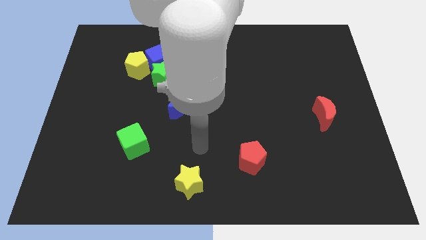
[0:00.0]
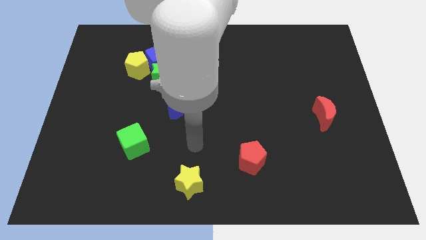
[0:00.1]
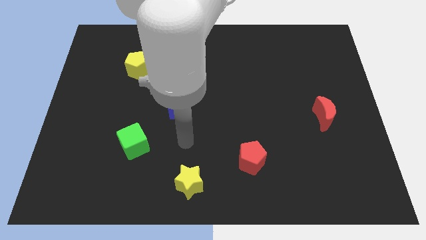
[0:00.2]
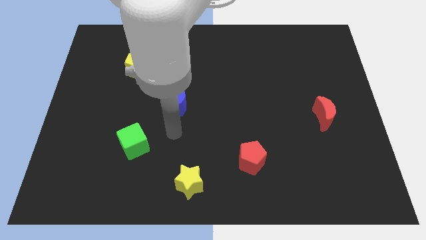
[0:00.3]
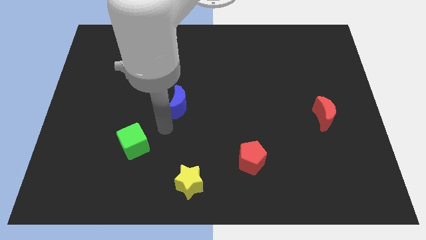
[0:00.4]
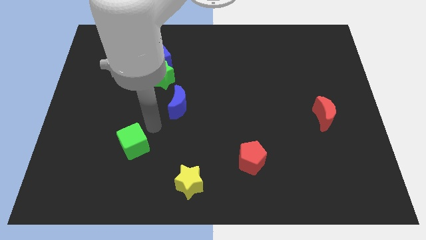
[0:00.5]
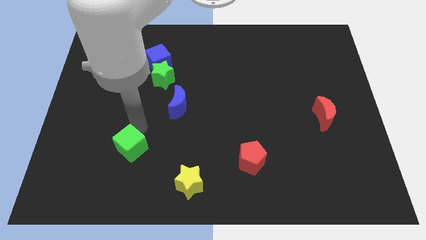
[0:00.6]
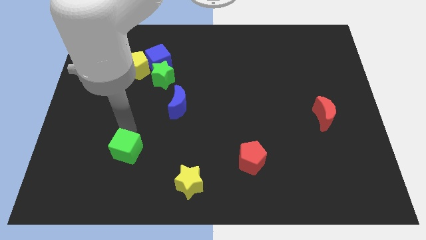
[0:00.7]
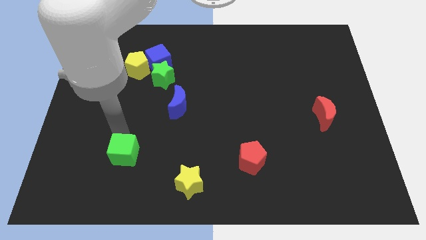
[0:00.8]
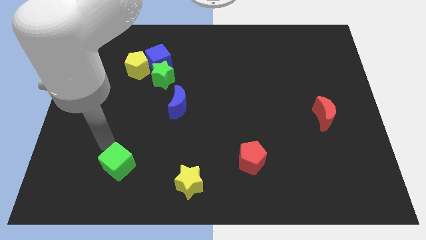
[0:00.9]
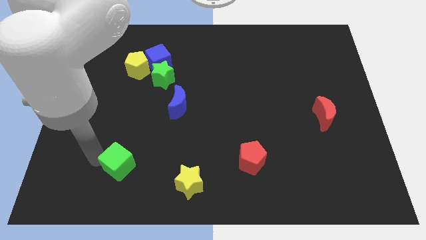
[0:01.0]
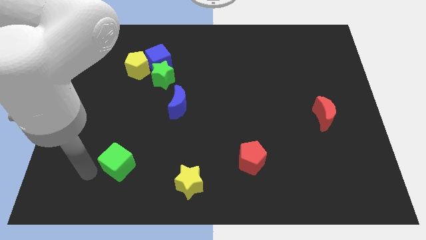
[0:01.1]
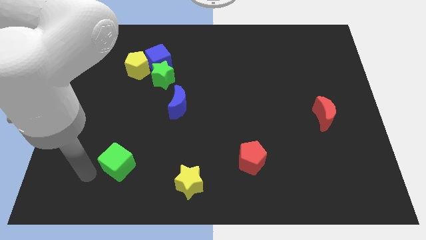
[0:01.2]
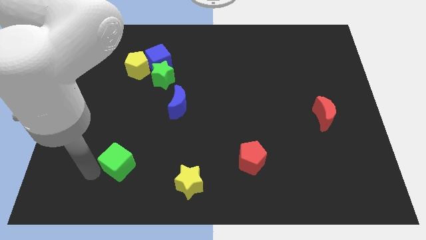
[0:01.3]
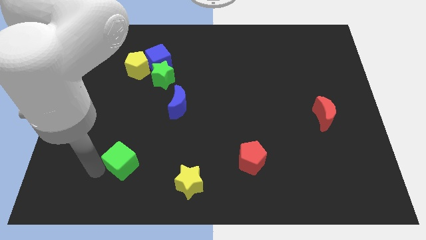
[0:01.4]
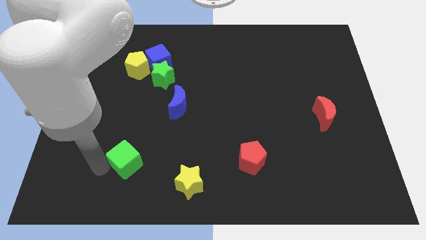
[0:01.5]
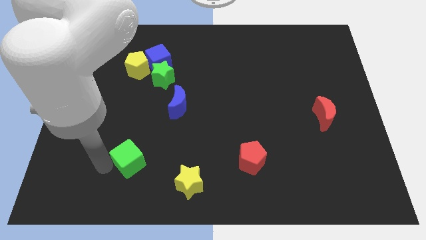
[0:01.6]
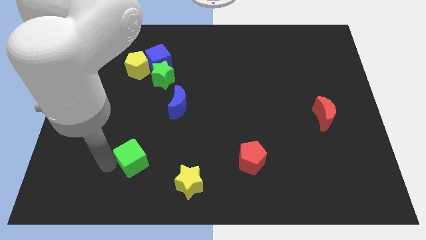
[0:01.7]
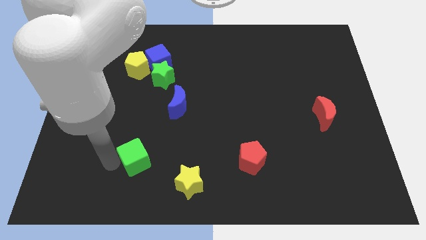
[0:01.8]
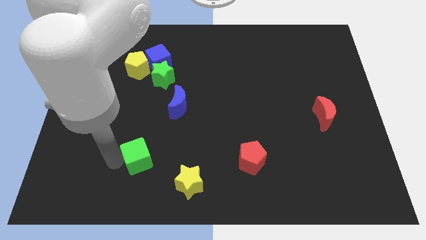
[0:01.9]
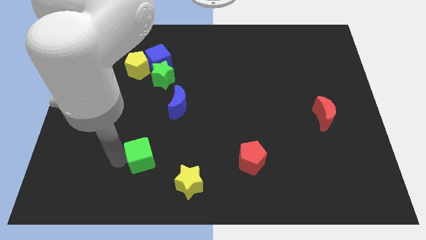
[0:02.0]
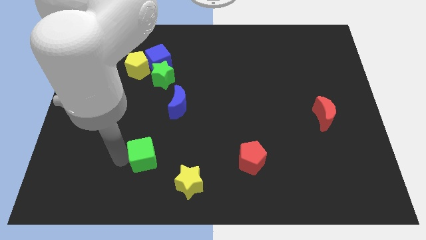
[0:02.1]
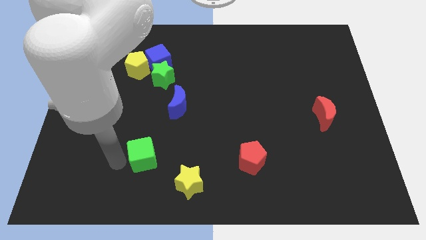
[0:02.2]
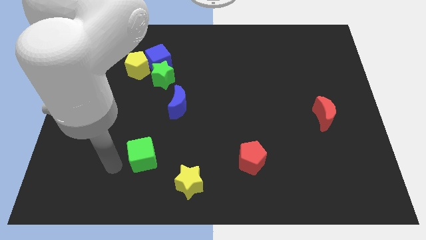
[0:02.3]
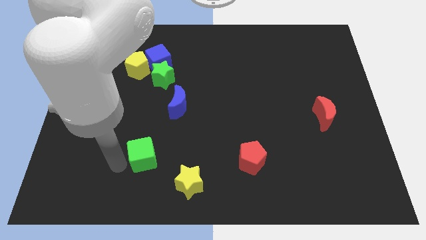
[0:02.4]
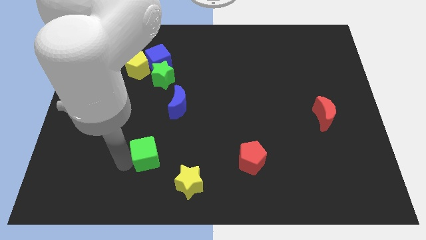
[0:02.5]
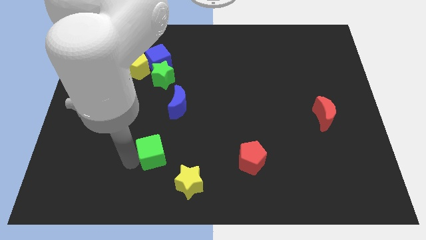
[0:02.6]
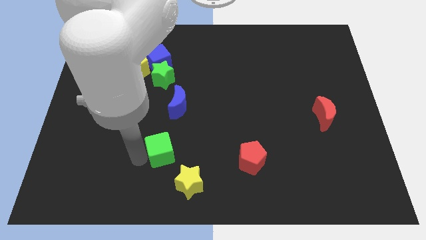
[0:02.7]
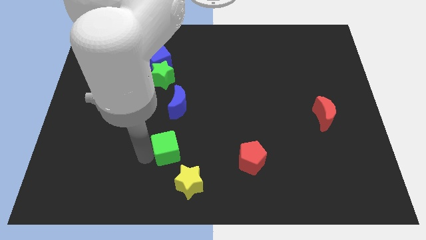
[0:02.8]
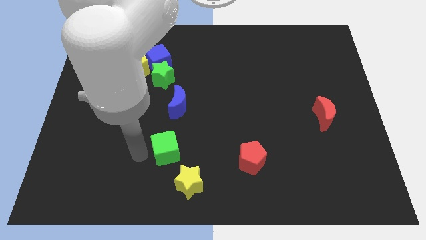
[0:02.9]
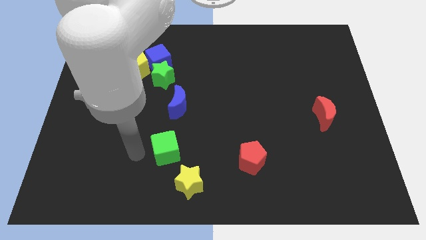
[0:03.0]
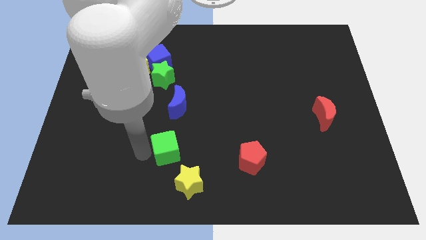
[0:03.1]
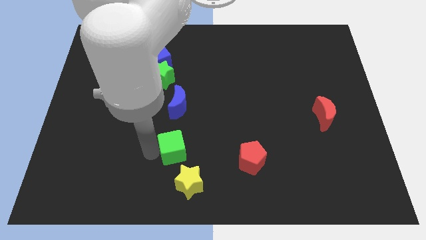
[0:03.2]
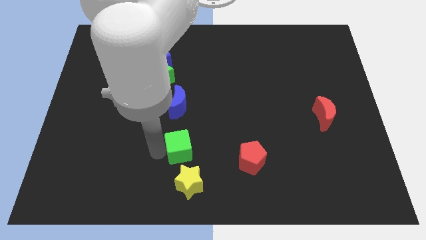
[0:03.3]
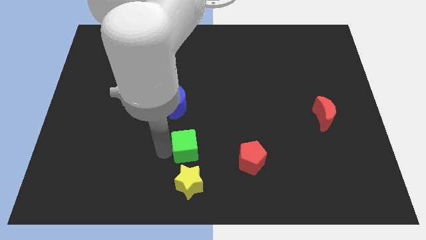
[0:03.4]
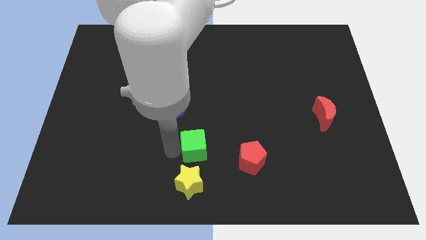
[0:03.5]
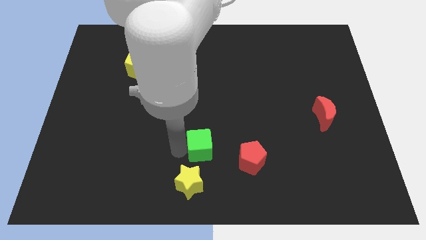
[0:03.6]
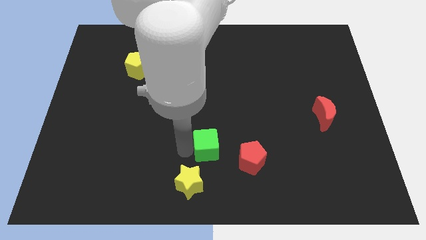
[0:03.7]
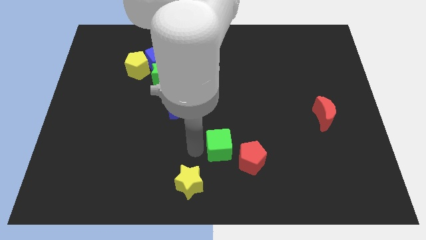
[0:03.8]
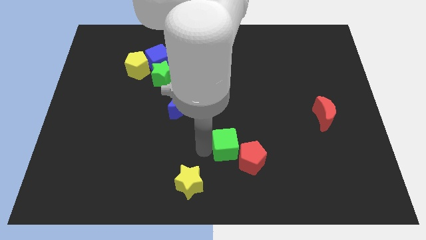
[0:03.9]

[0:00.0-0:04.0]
move the green cube right

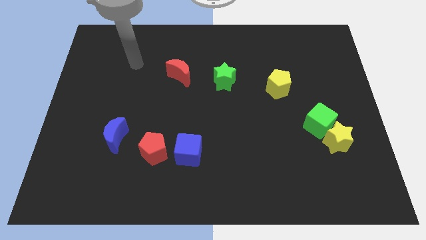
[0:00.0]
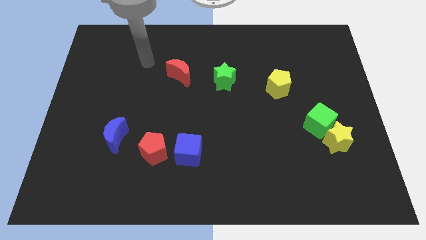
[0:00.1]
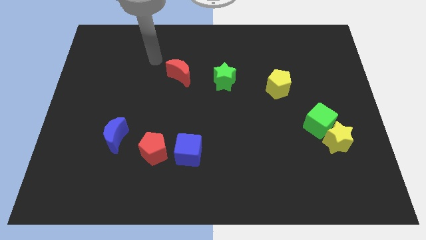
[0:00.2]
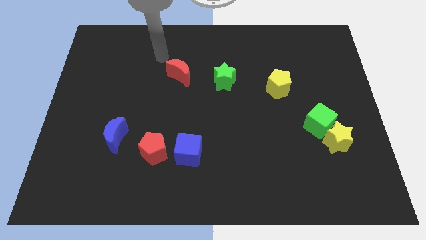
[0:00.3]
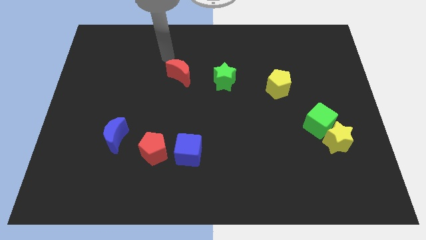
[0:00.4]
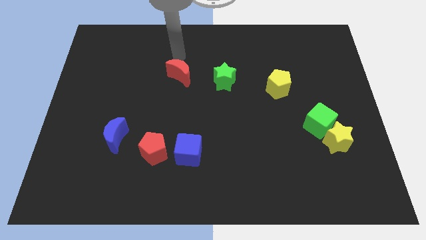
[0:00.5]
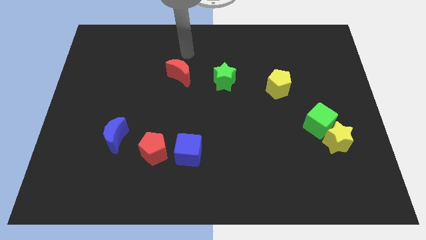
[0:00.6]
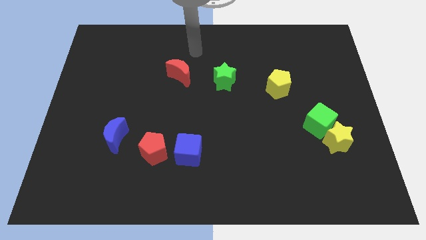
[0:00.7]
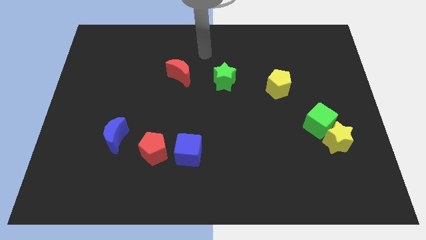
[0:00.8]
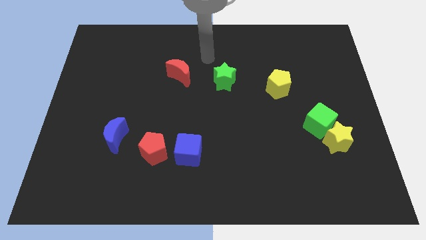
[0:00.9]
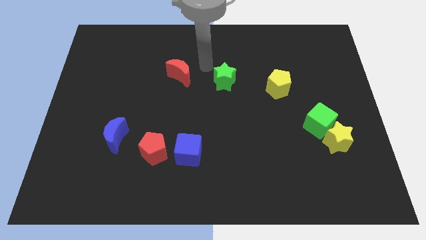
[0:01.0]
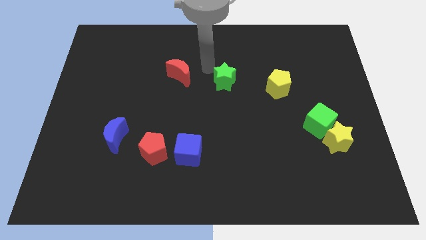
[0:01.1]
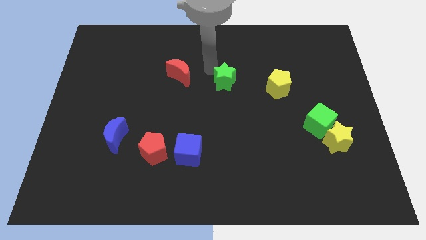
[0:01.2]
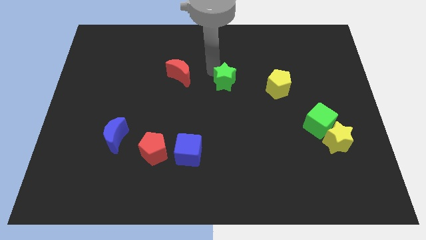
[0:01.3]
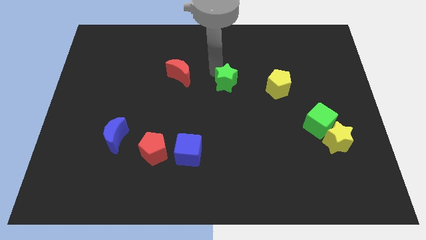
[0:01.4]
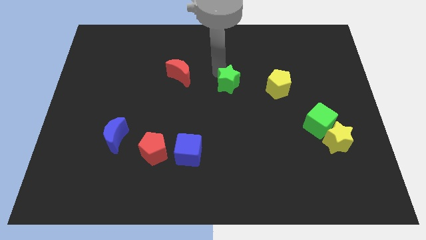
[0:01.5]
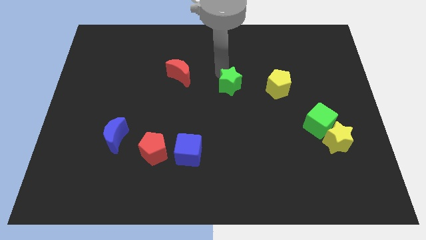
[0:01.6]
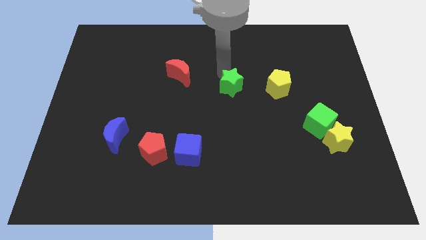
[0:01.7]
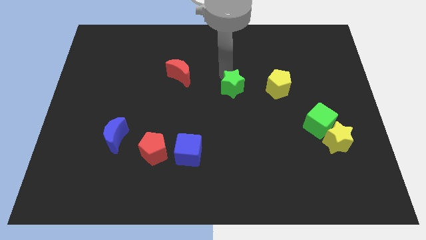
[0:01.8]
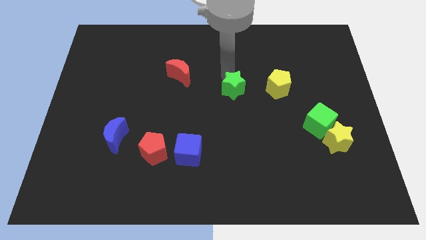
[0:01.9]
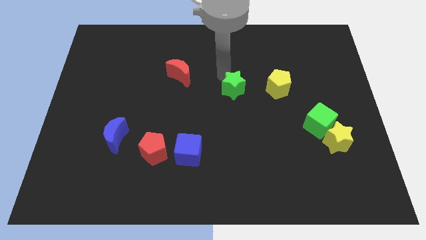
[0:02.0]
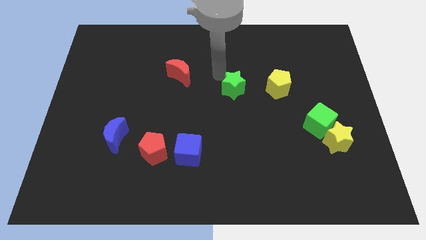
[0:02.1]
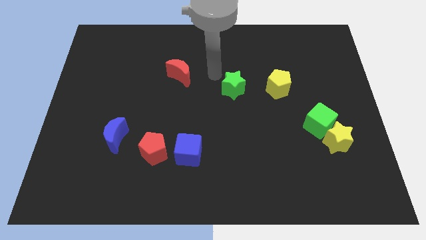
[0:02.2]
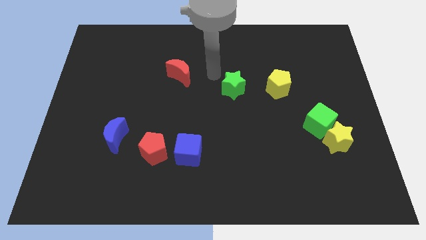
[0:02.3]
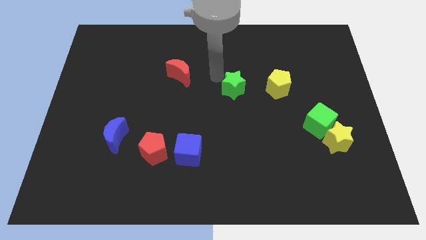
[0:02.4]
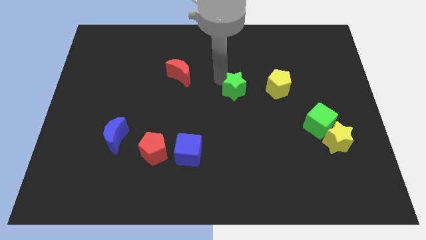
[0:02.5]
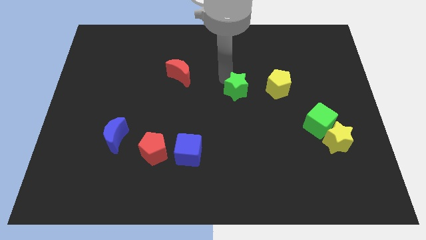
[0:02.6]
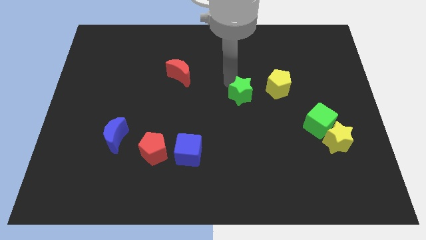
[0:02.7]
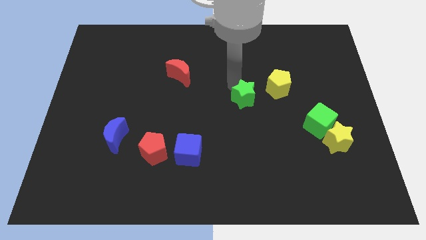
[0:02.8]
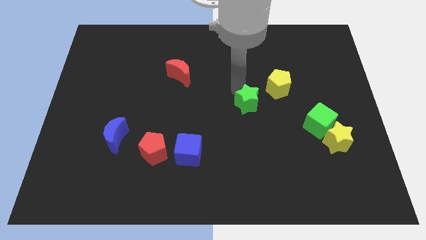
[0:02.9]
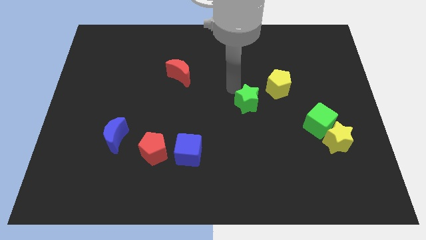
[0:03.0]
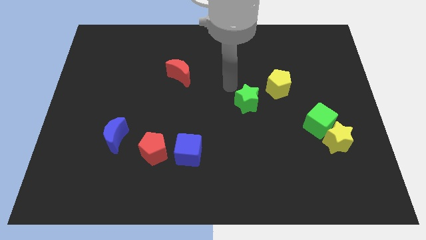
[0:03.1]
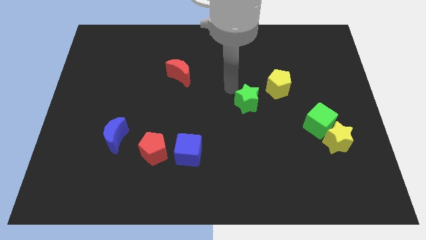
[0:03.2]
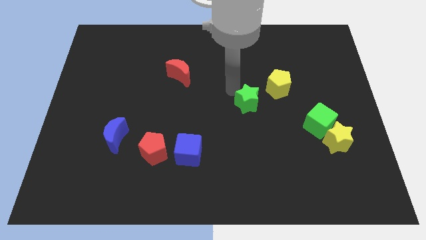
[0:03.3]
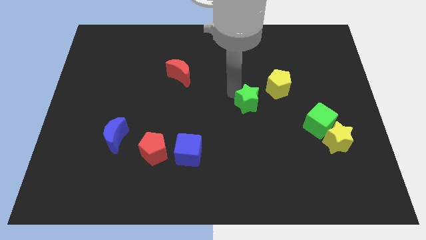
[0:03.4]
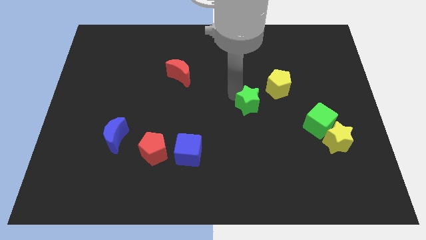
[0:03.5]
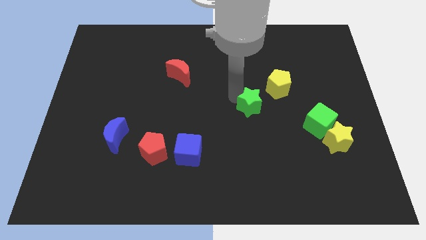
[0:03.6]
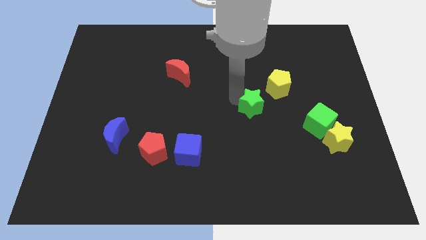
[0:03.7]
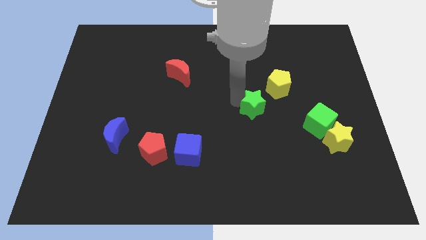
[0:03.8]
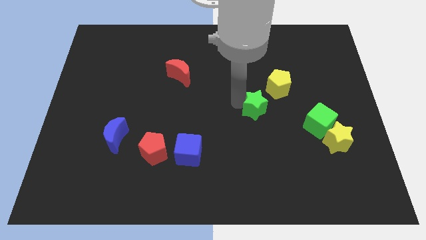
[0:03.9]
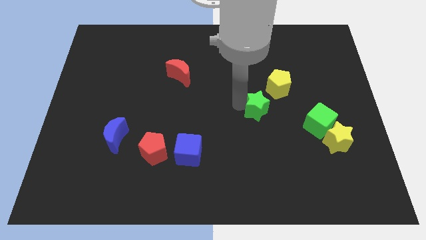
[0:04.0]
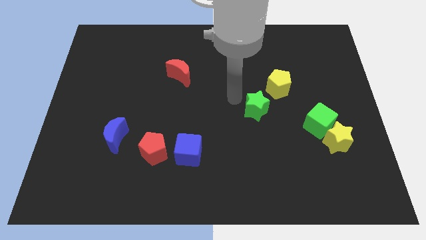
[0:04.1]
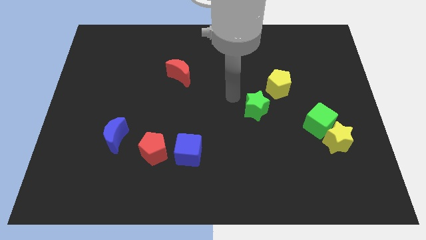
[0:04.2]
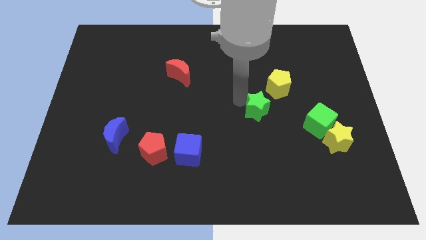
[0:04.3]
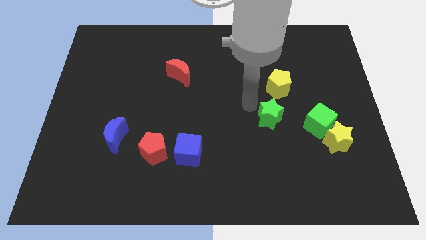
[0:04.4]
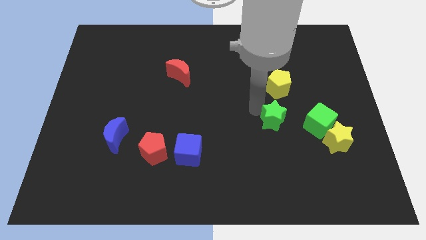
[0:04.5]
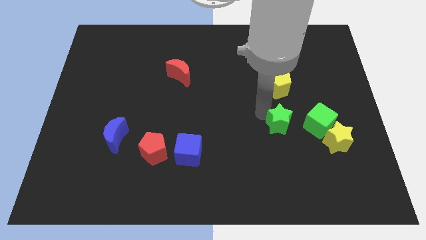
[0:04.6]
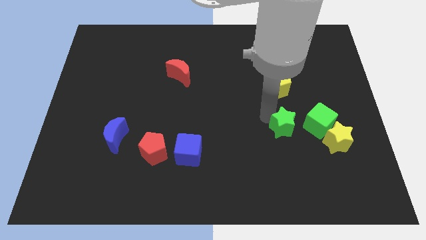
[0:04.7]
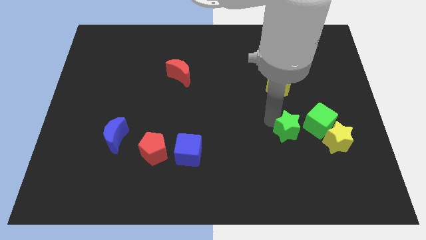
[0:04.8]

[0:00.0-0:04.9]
push the green star downwards and to the right diagonally
